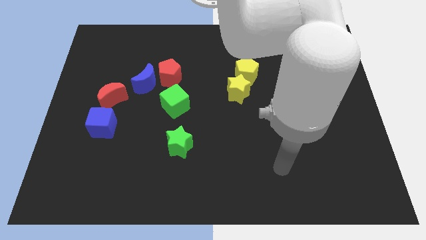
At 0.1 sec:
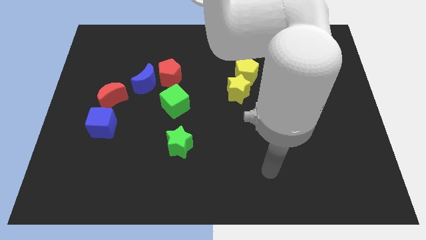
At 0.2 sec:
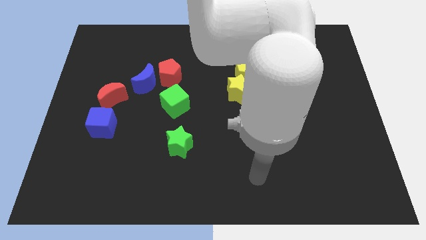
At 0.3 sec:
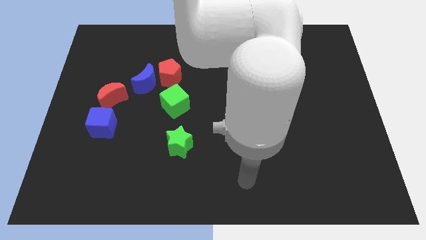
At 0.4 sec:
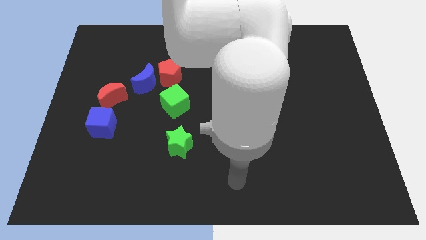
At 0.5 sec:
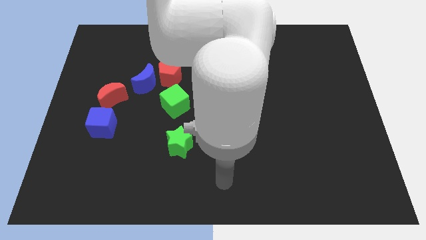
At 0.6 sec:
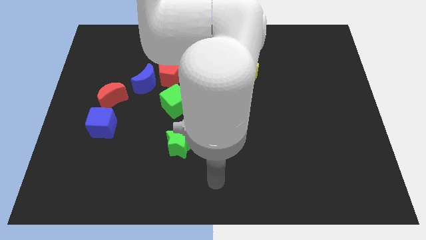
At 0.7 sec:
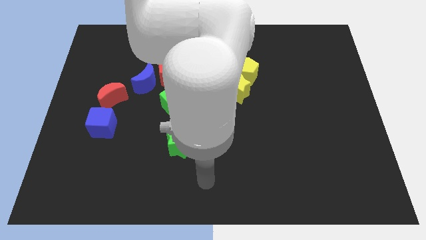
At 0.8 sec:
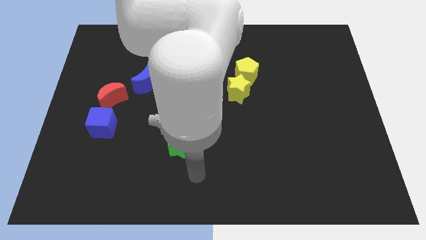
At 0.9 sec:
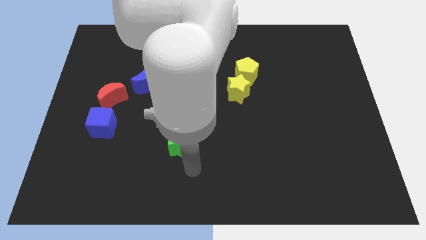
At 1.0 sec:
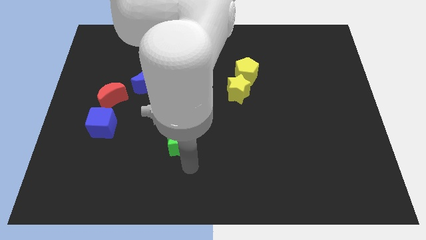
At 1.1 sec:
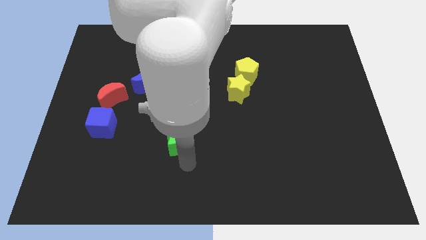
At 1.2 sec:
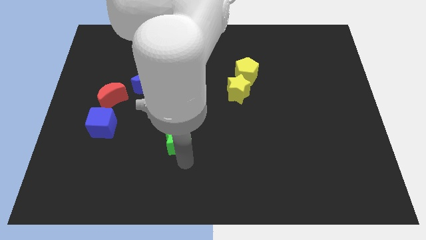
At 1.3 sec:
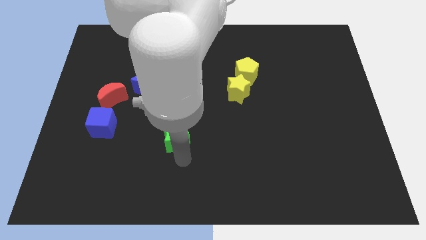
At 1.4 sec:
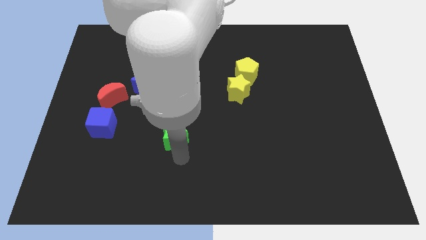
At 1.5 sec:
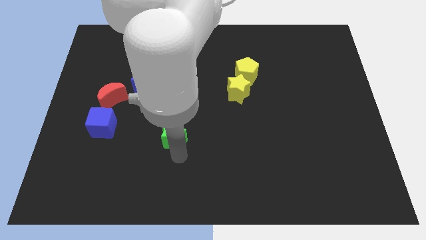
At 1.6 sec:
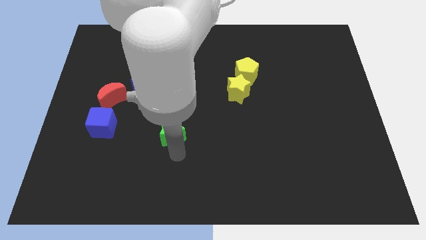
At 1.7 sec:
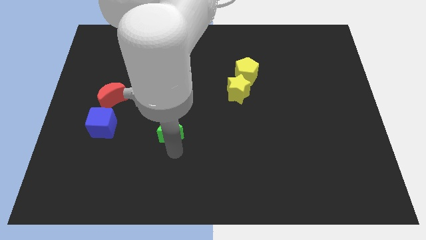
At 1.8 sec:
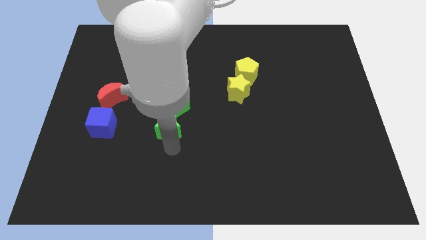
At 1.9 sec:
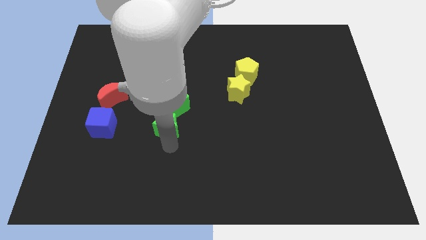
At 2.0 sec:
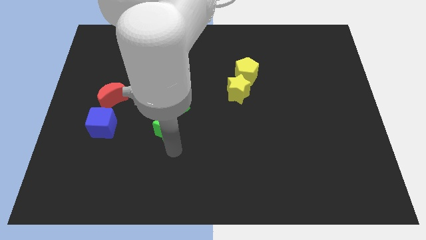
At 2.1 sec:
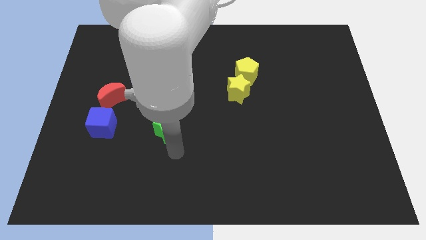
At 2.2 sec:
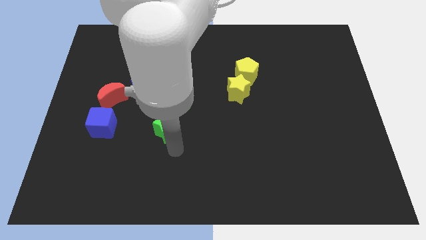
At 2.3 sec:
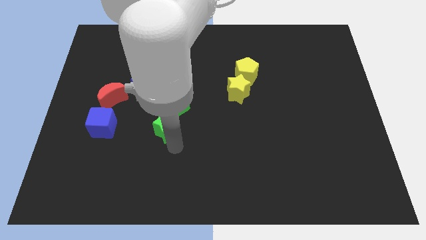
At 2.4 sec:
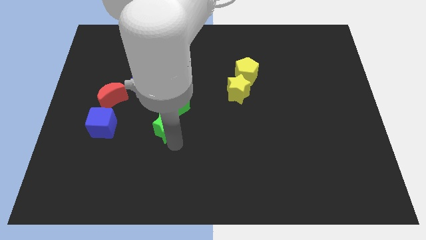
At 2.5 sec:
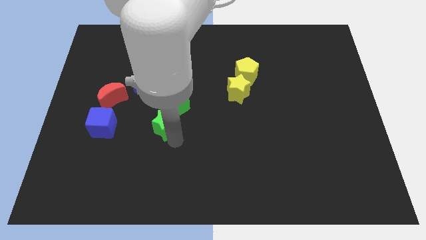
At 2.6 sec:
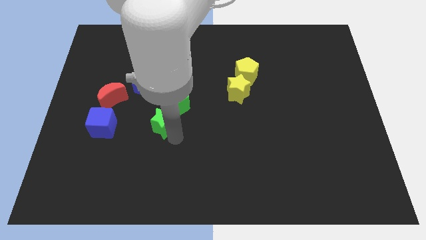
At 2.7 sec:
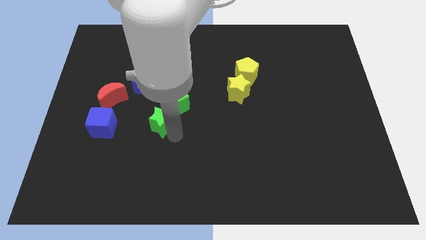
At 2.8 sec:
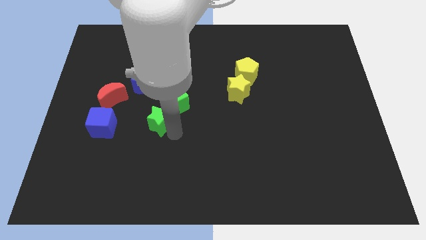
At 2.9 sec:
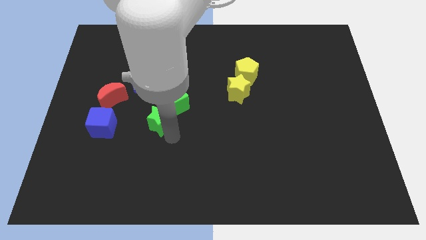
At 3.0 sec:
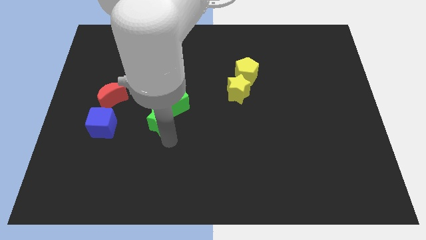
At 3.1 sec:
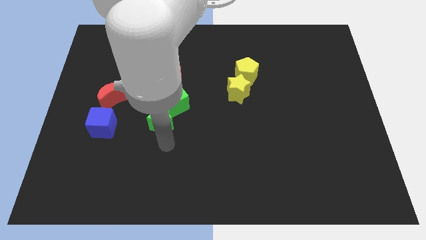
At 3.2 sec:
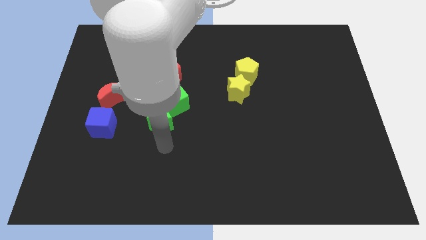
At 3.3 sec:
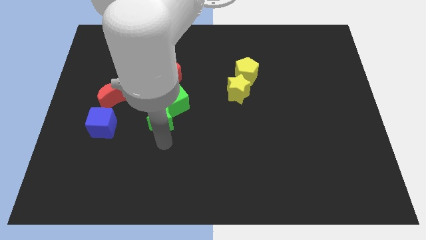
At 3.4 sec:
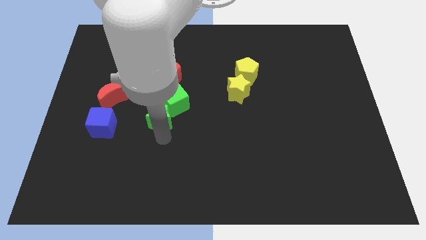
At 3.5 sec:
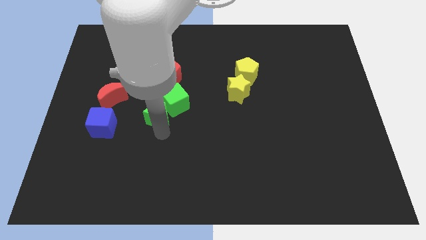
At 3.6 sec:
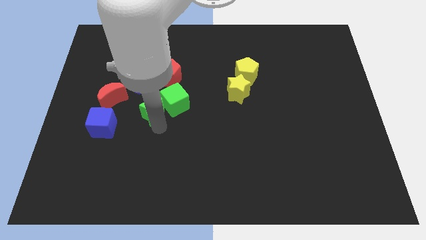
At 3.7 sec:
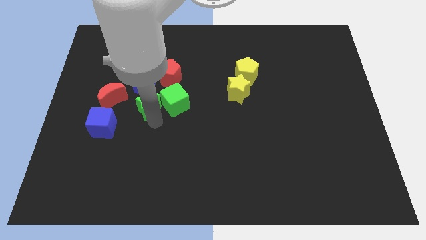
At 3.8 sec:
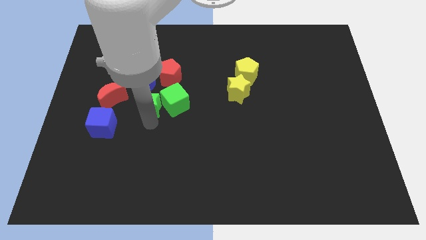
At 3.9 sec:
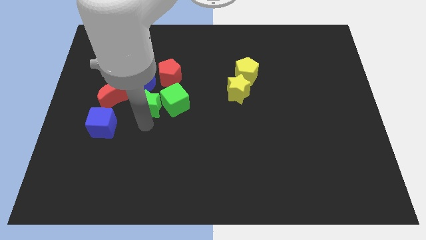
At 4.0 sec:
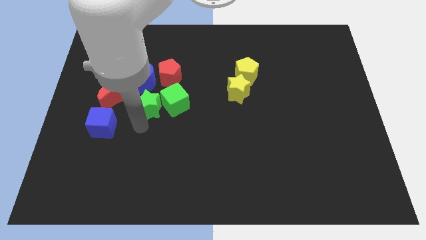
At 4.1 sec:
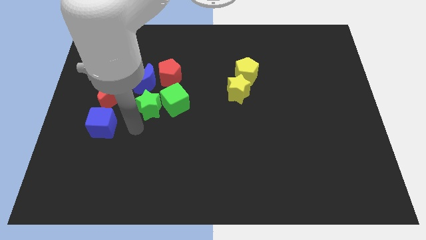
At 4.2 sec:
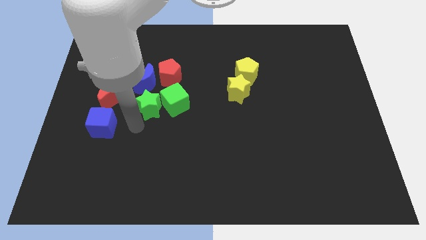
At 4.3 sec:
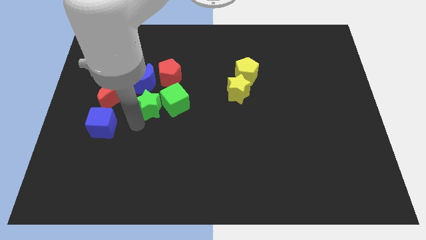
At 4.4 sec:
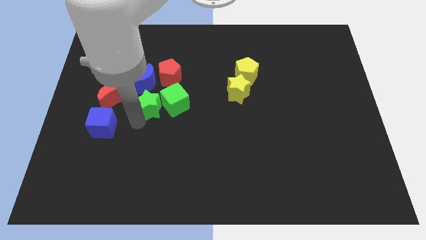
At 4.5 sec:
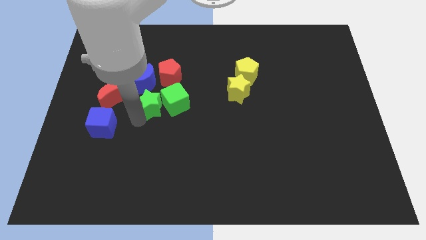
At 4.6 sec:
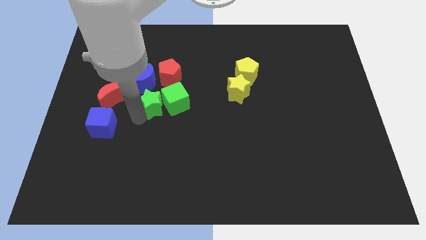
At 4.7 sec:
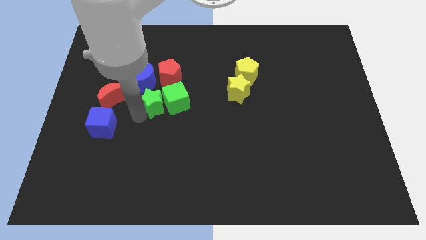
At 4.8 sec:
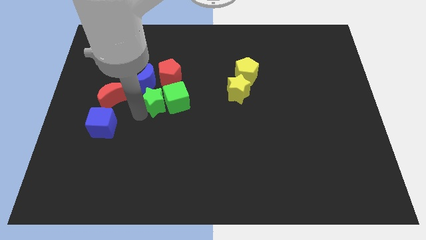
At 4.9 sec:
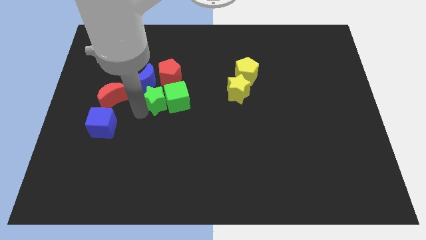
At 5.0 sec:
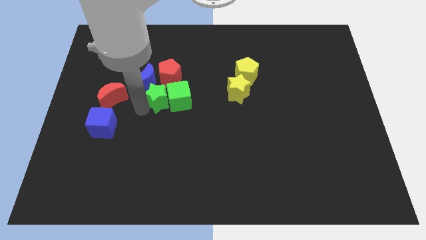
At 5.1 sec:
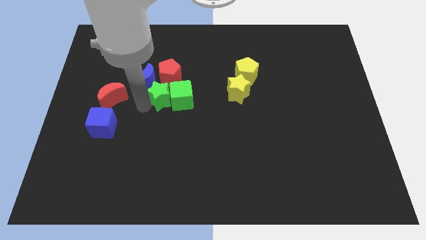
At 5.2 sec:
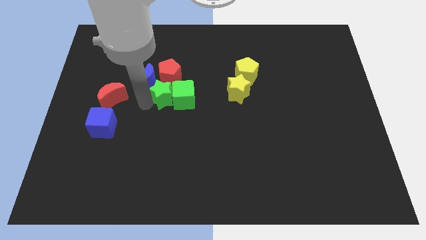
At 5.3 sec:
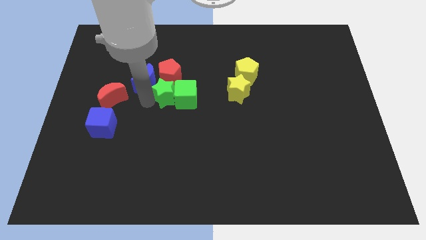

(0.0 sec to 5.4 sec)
push the green star towards the red pentagon
